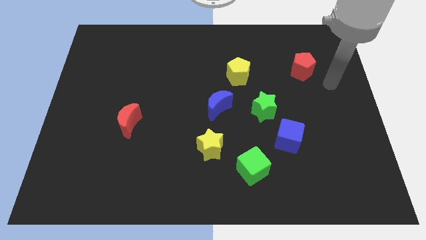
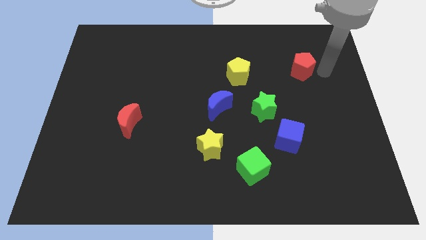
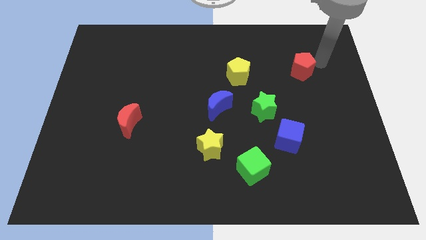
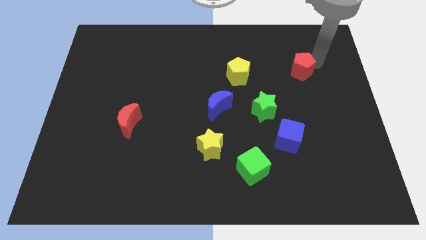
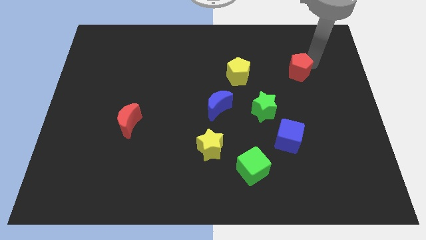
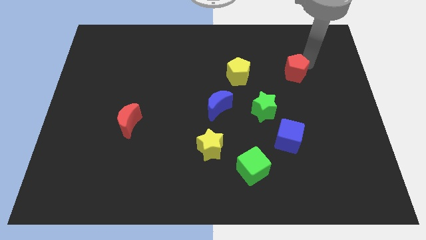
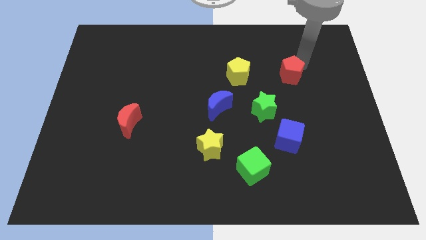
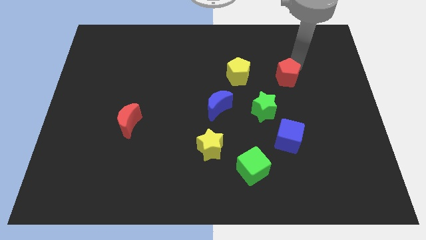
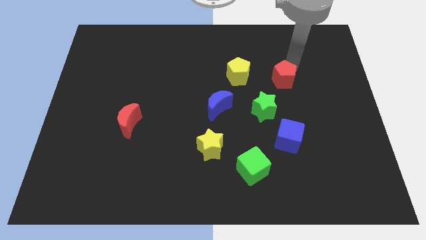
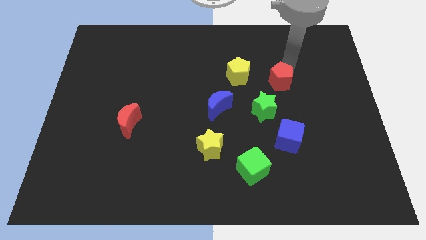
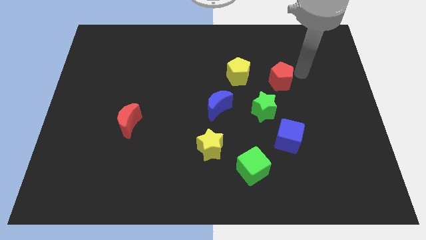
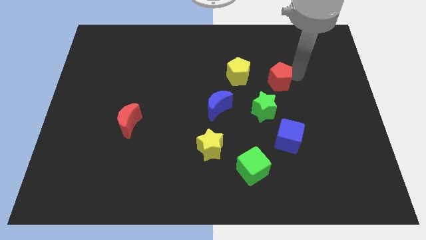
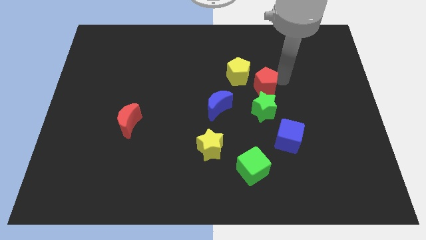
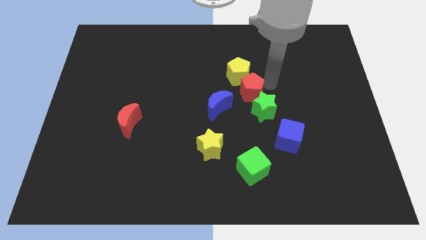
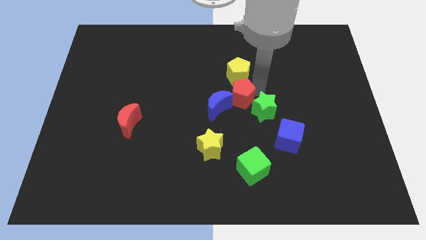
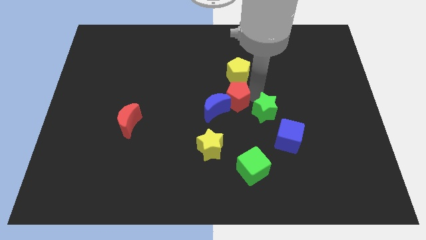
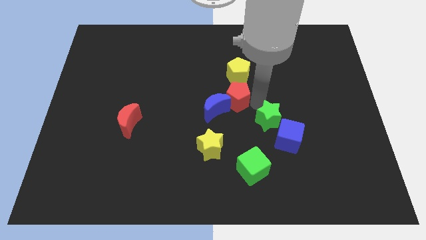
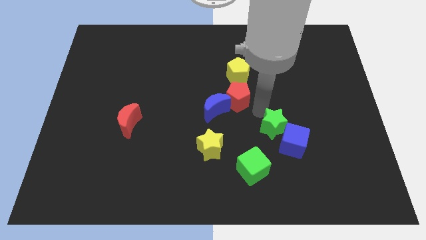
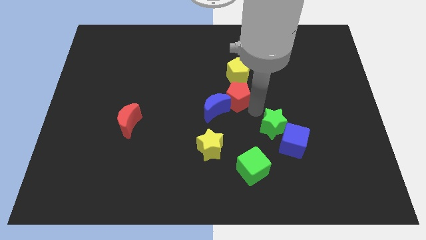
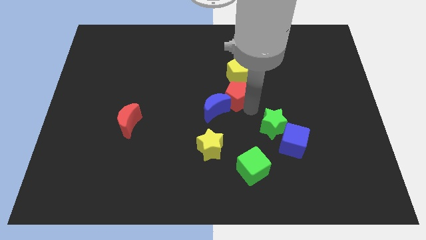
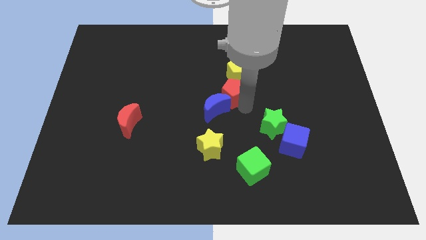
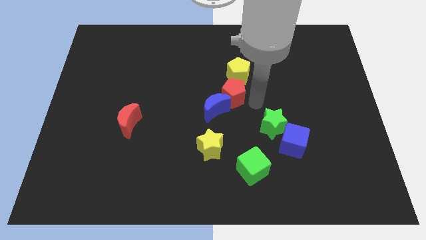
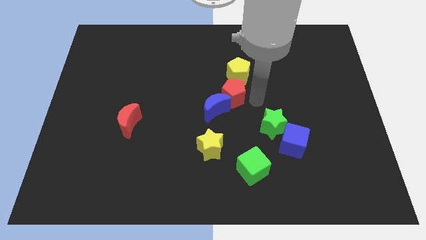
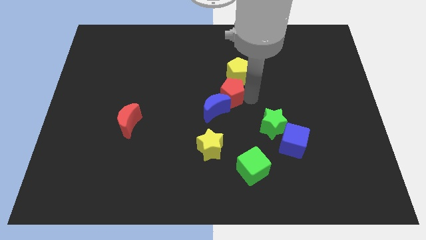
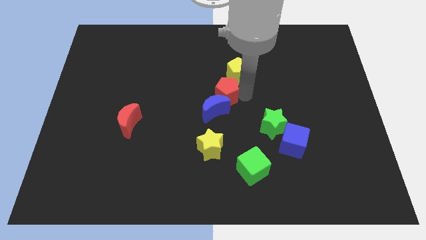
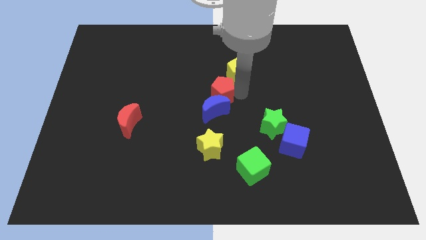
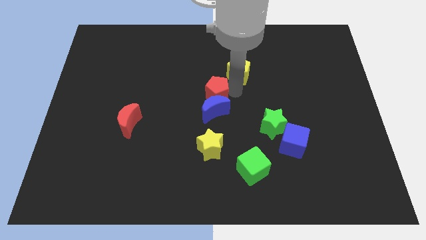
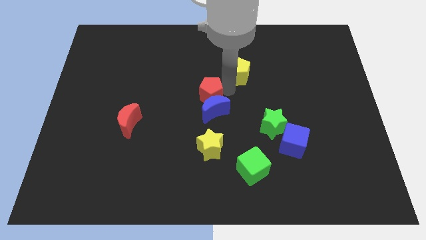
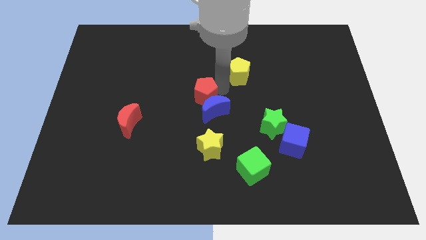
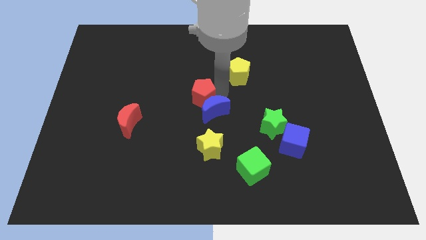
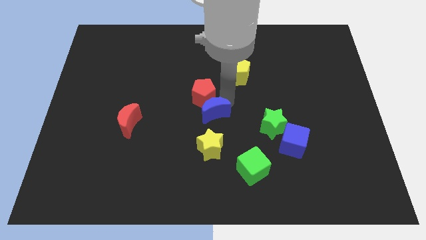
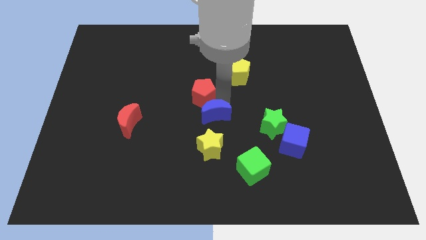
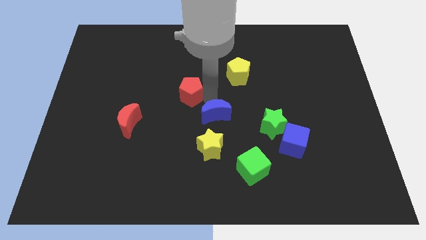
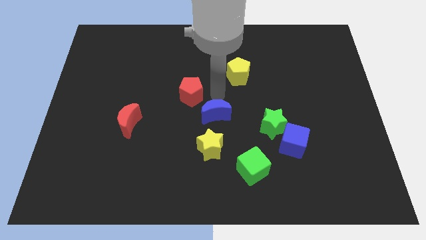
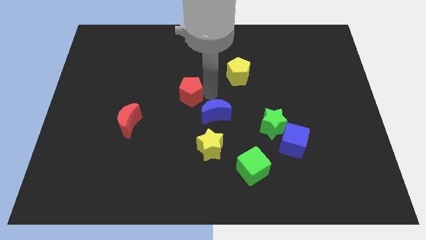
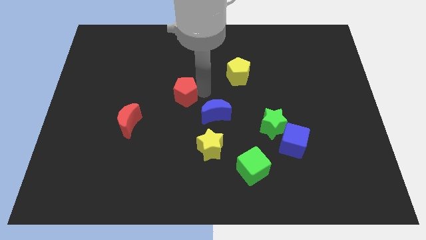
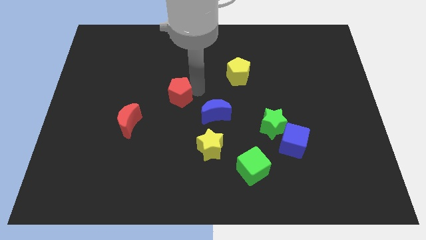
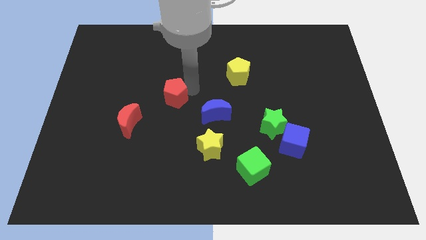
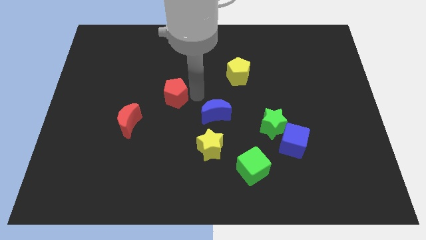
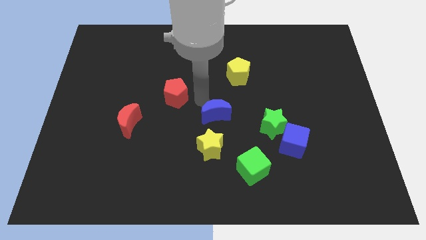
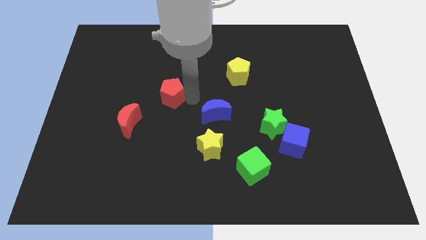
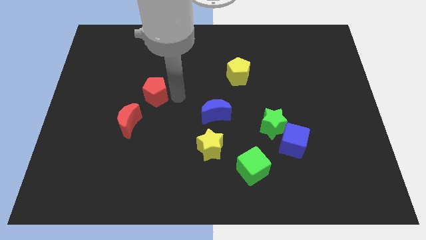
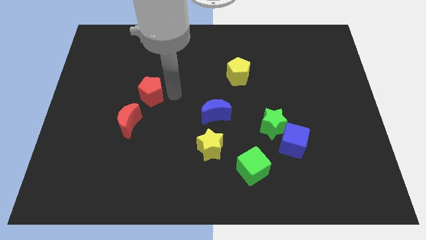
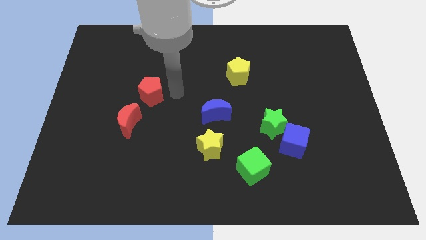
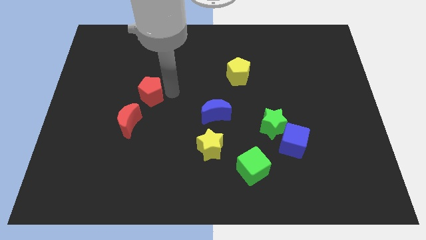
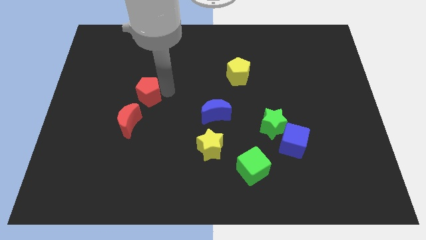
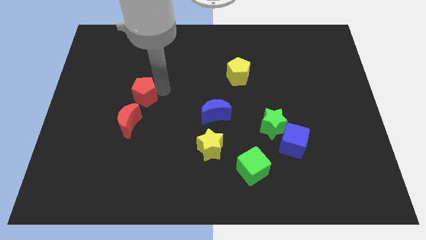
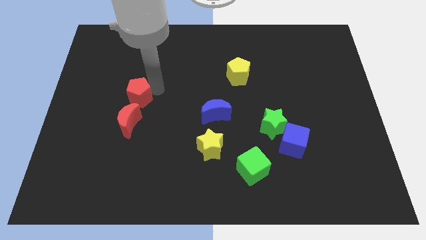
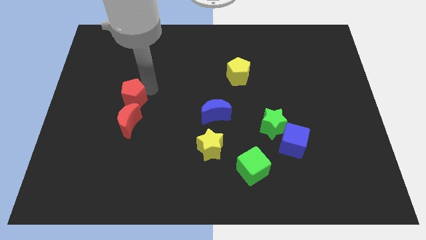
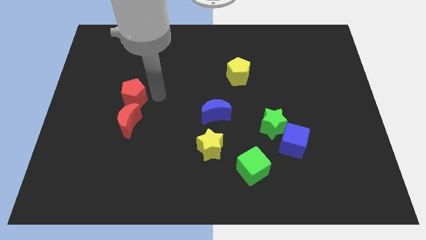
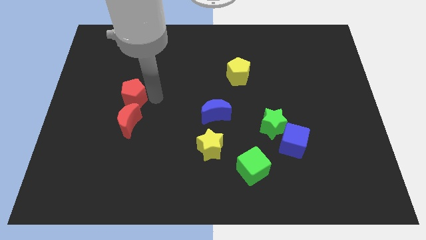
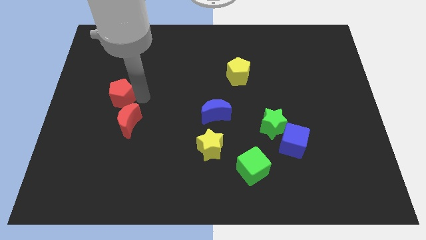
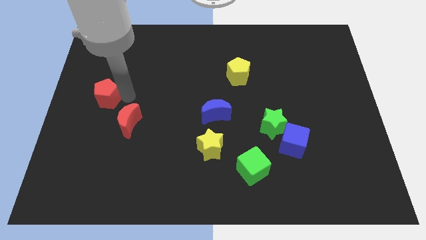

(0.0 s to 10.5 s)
move the red pentagon to the left side
